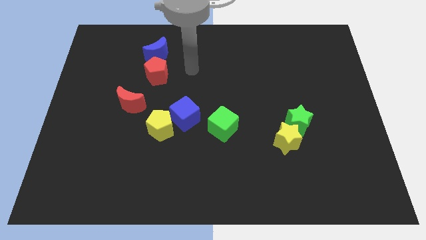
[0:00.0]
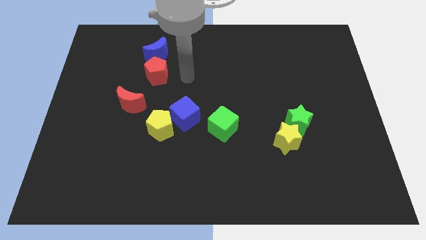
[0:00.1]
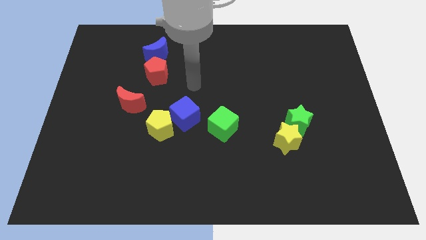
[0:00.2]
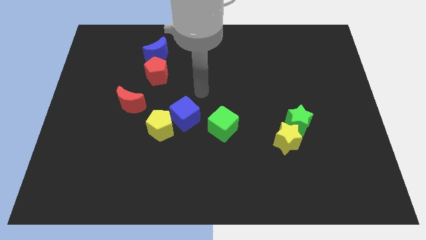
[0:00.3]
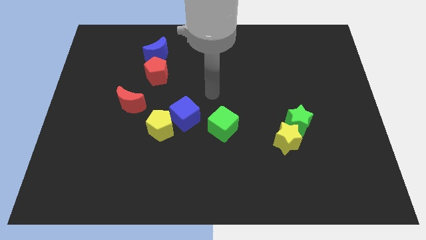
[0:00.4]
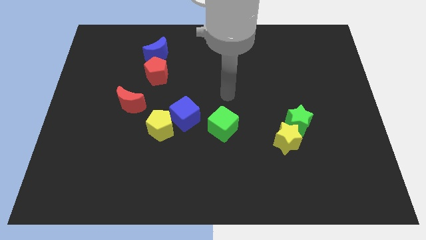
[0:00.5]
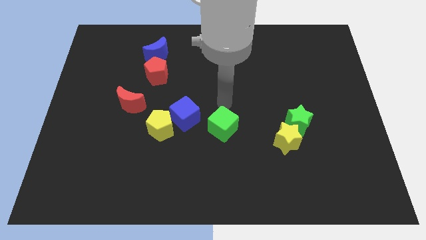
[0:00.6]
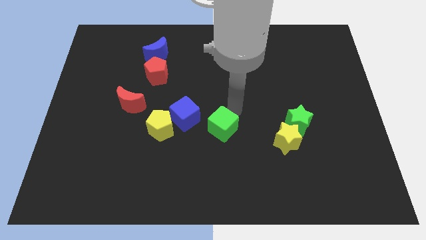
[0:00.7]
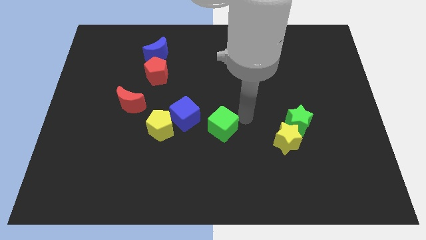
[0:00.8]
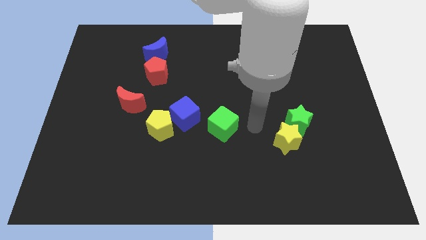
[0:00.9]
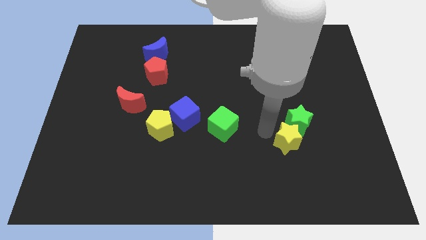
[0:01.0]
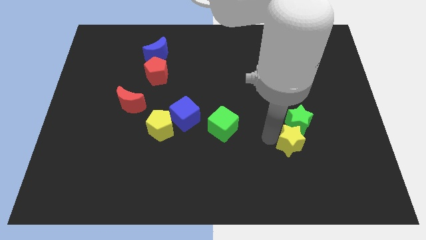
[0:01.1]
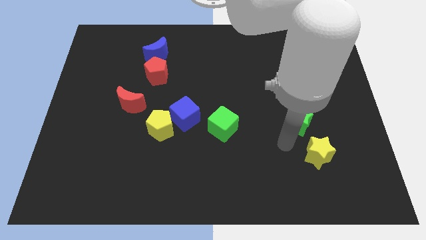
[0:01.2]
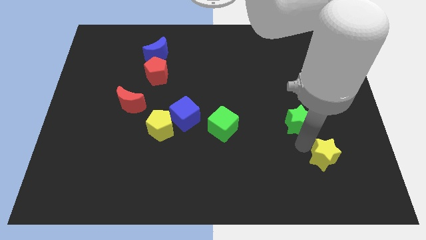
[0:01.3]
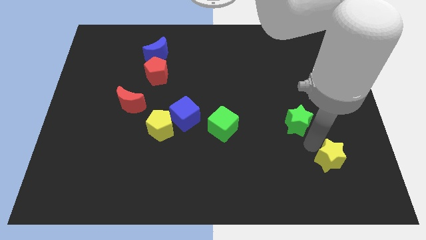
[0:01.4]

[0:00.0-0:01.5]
pull the green star apart from the yellow star

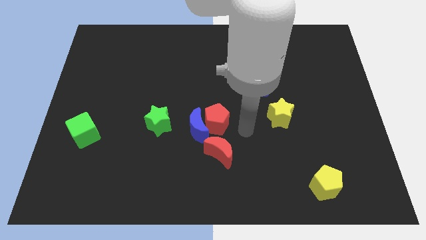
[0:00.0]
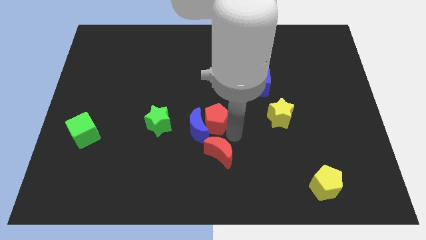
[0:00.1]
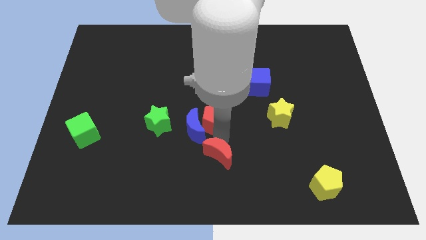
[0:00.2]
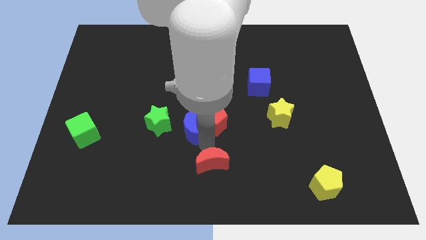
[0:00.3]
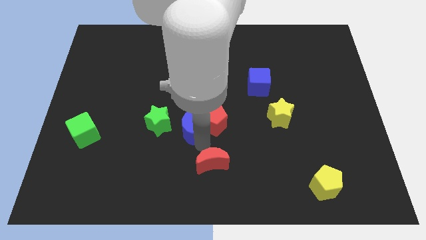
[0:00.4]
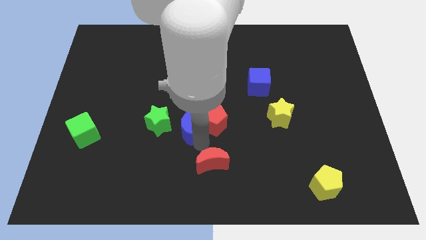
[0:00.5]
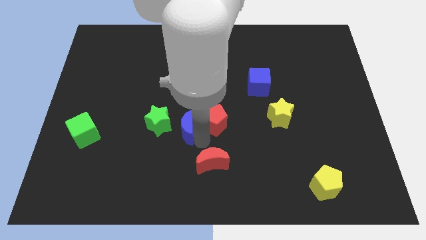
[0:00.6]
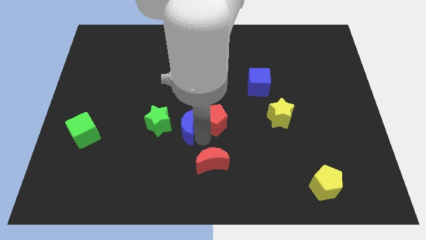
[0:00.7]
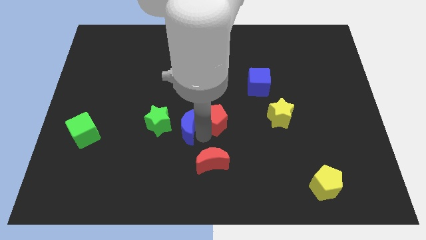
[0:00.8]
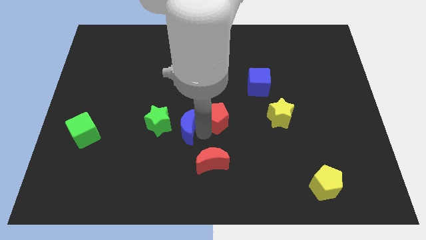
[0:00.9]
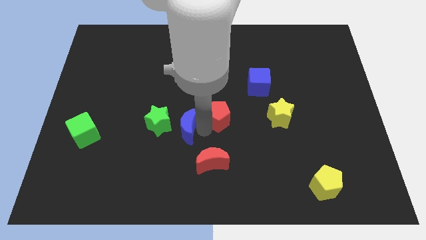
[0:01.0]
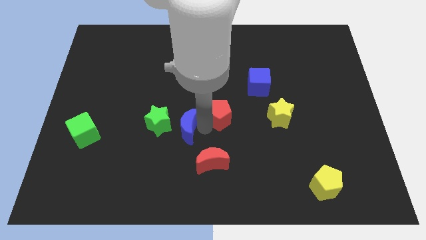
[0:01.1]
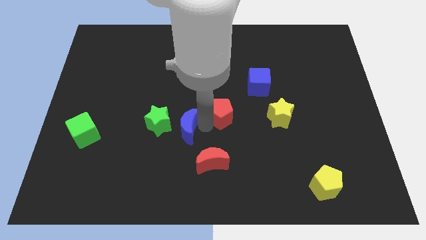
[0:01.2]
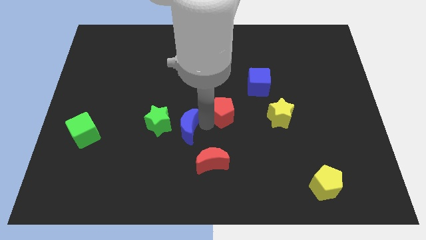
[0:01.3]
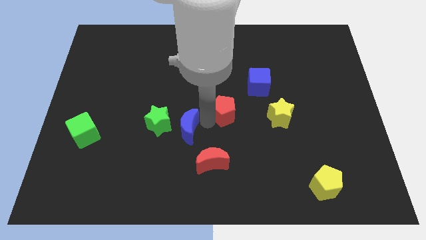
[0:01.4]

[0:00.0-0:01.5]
pull the red pentagon apart from the blue moon and red moon

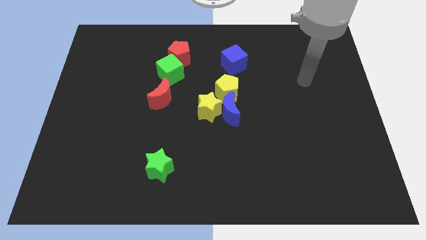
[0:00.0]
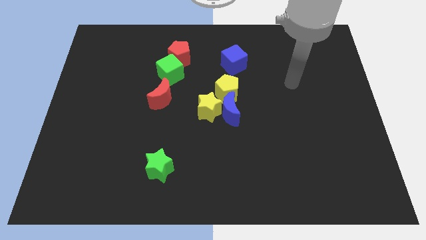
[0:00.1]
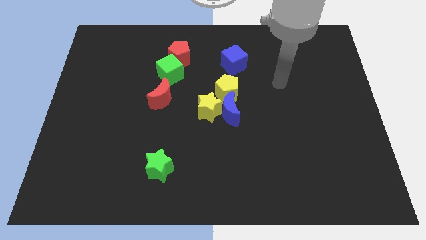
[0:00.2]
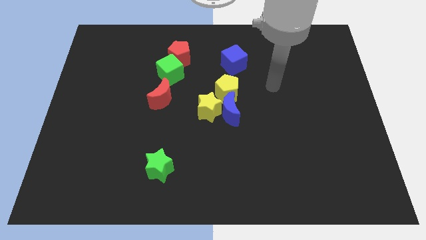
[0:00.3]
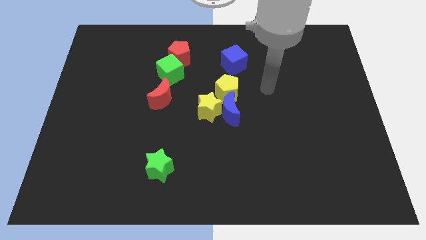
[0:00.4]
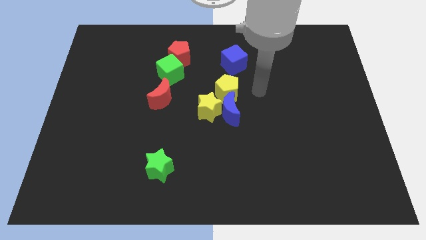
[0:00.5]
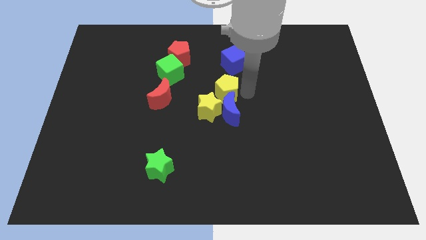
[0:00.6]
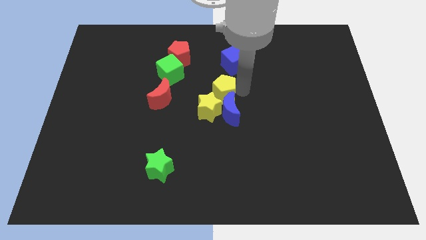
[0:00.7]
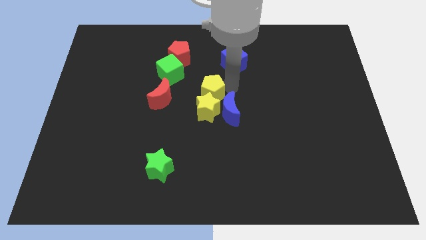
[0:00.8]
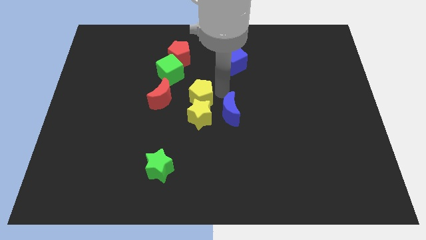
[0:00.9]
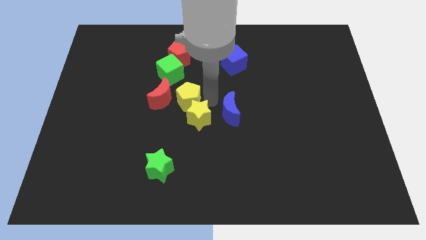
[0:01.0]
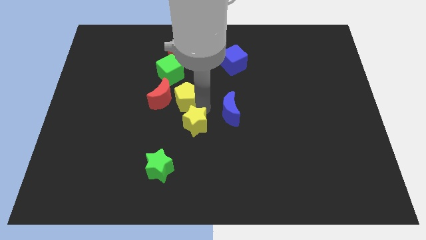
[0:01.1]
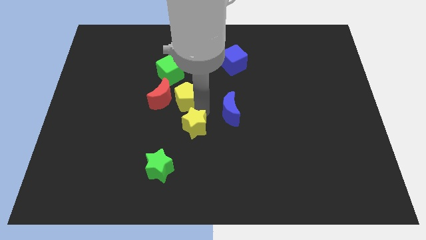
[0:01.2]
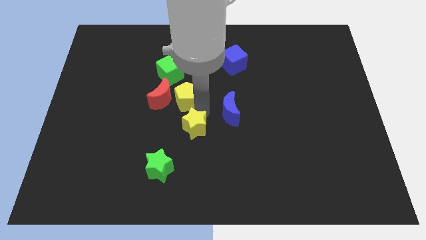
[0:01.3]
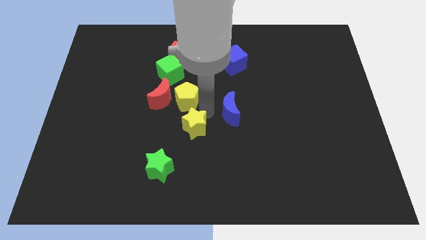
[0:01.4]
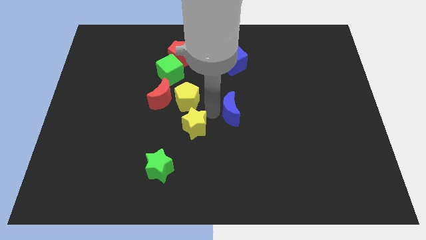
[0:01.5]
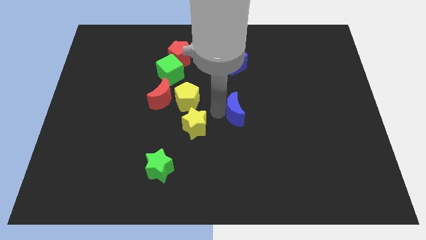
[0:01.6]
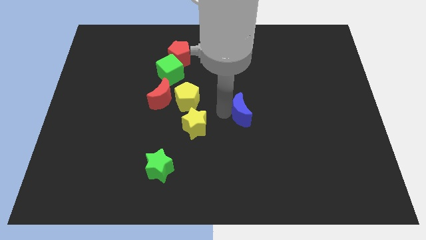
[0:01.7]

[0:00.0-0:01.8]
separate the blue moon from the yellow star and yellow pentagon

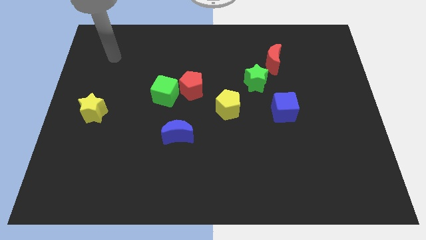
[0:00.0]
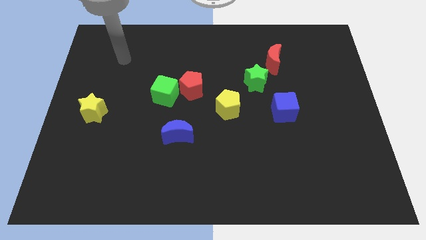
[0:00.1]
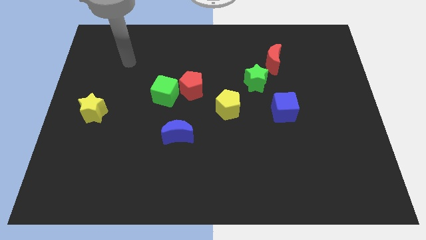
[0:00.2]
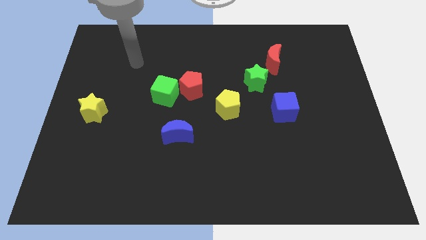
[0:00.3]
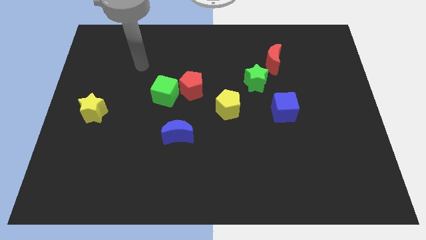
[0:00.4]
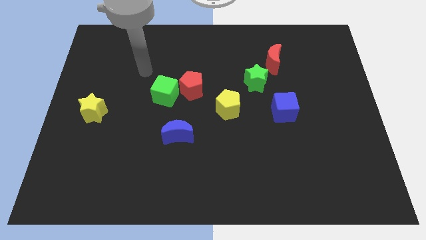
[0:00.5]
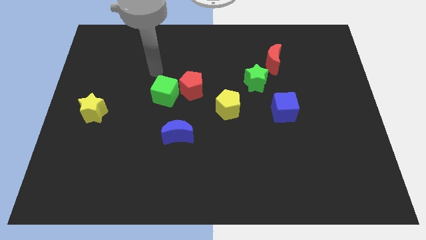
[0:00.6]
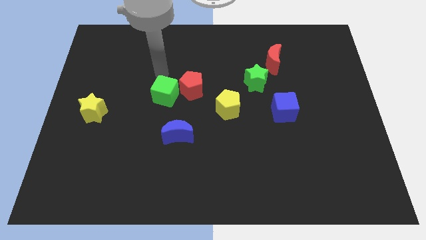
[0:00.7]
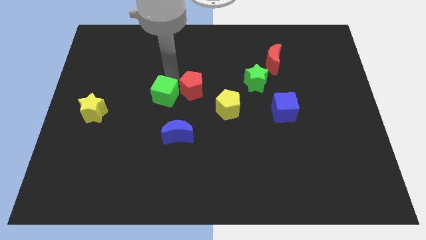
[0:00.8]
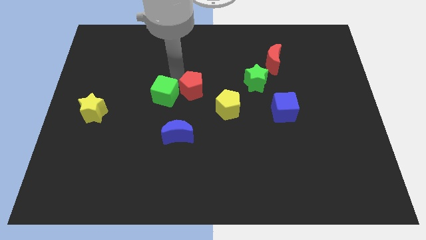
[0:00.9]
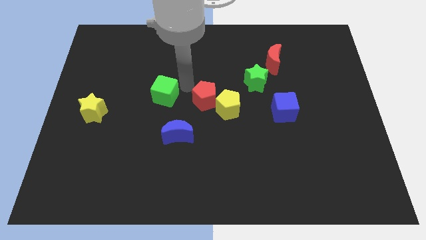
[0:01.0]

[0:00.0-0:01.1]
move the green cube away from the red pentagon

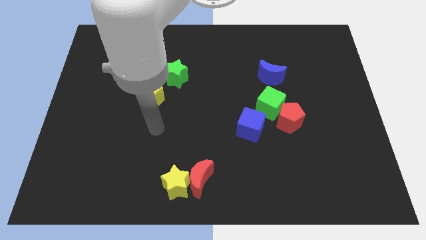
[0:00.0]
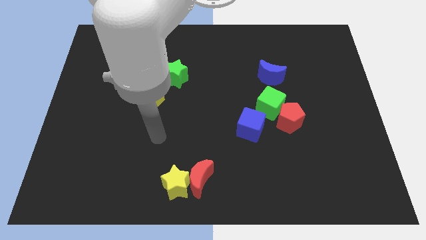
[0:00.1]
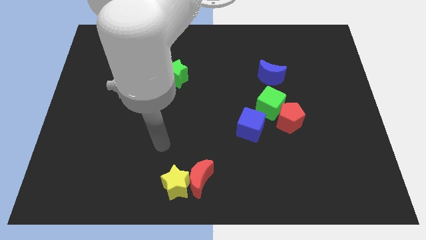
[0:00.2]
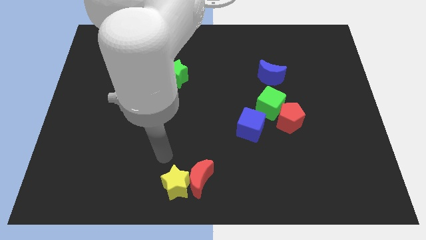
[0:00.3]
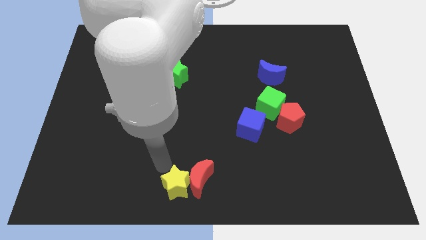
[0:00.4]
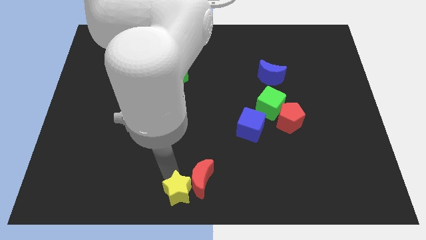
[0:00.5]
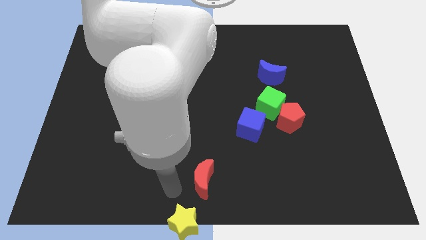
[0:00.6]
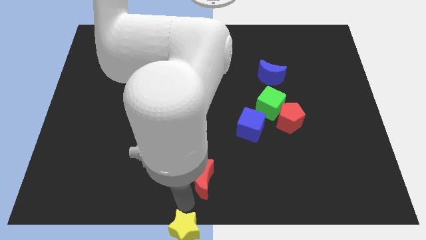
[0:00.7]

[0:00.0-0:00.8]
move the red moon away from the yellow star

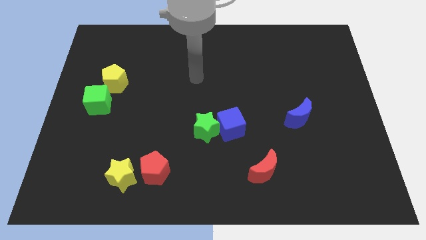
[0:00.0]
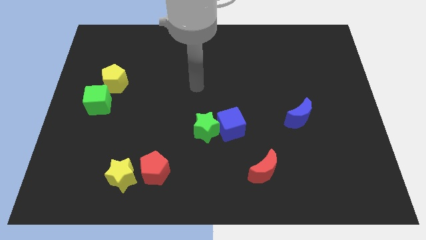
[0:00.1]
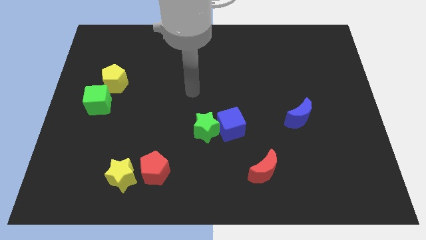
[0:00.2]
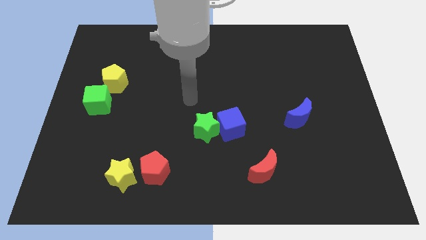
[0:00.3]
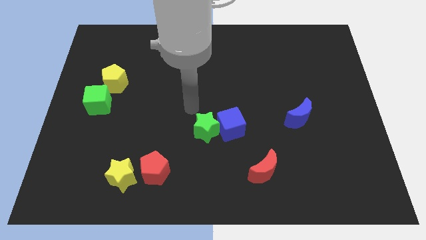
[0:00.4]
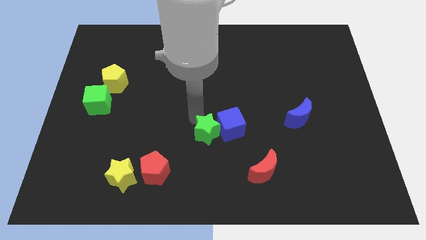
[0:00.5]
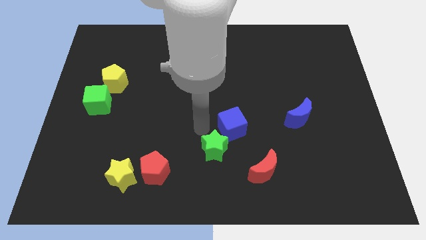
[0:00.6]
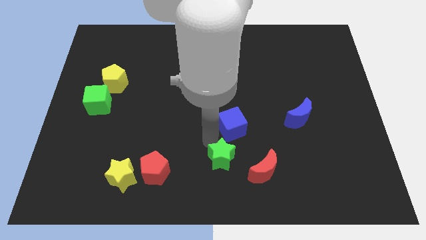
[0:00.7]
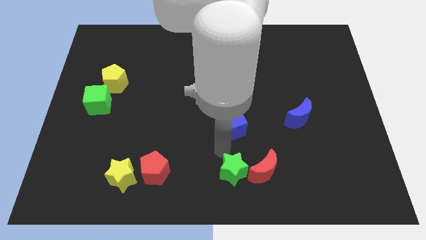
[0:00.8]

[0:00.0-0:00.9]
pull the blue cube apart from the green star

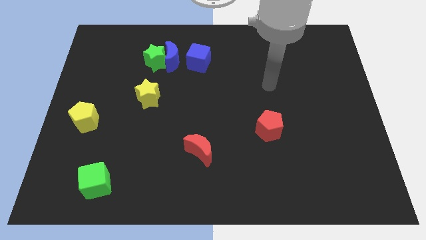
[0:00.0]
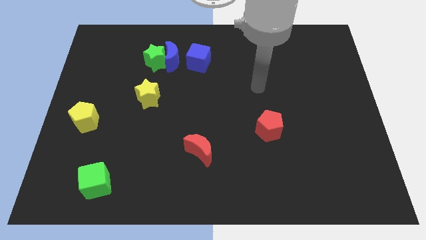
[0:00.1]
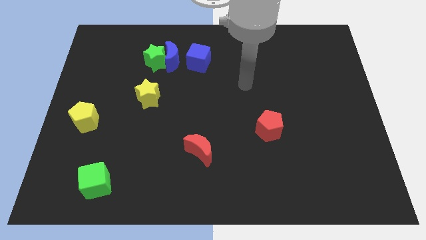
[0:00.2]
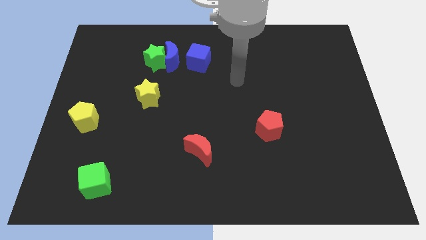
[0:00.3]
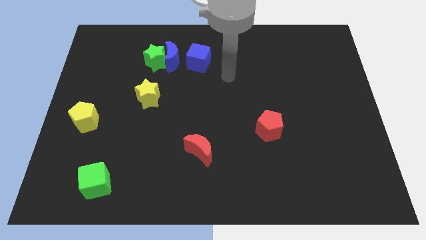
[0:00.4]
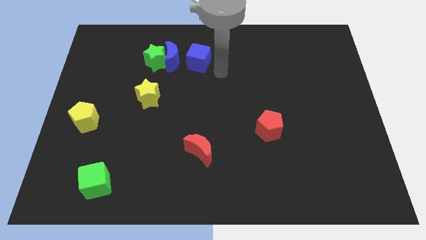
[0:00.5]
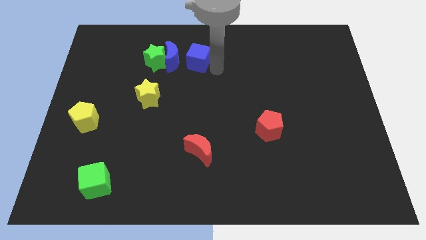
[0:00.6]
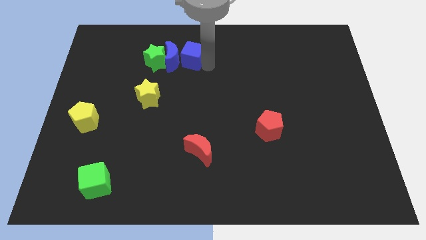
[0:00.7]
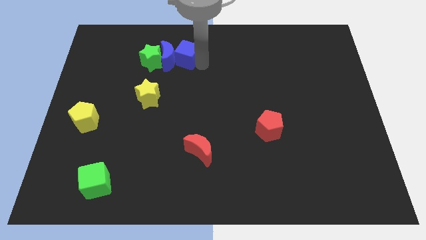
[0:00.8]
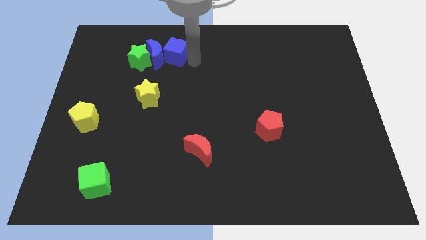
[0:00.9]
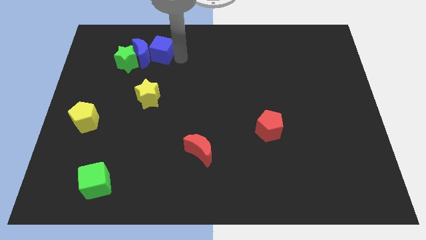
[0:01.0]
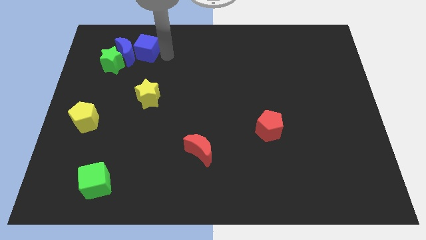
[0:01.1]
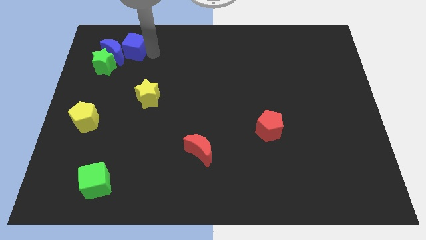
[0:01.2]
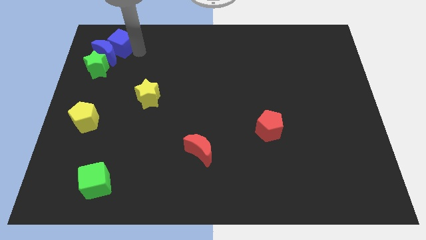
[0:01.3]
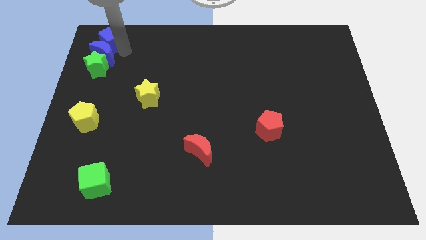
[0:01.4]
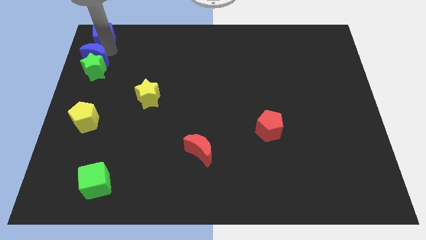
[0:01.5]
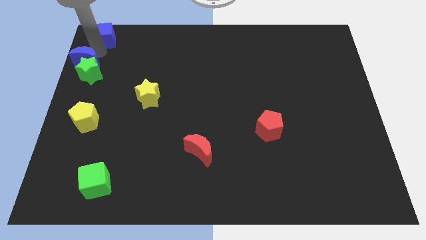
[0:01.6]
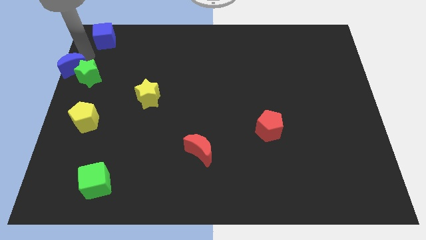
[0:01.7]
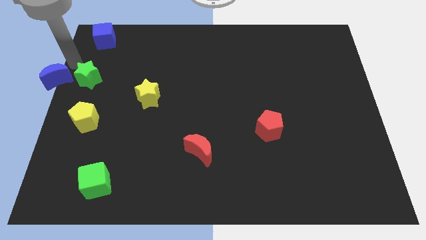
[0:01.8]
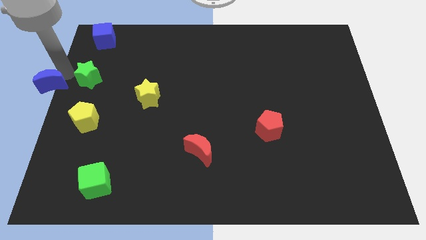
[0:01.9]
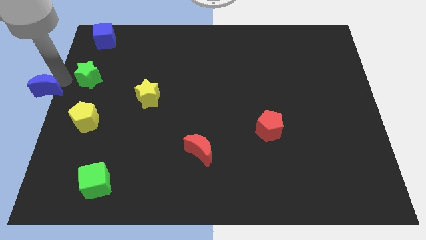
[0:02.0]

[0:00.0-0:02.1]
separate the green star from the blue moon
